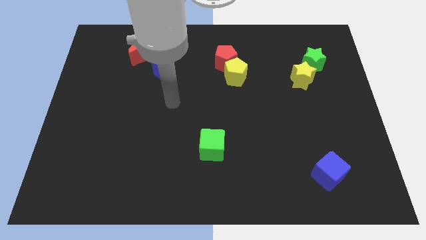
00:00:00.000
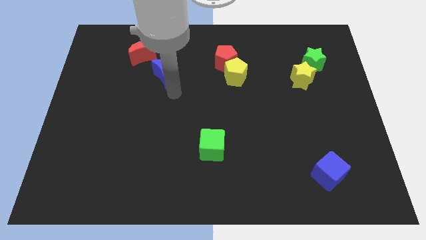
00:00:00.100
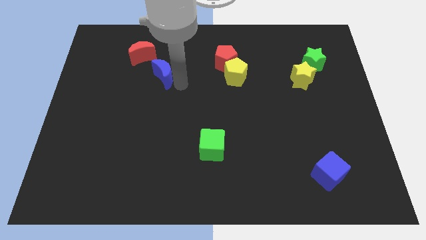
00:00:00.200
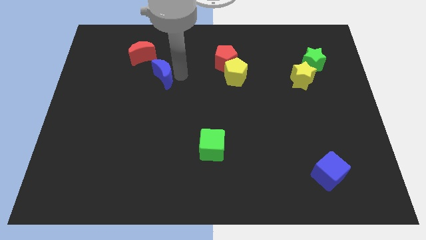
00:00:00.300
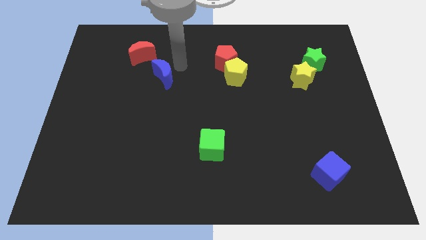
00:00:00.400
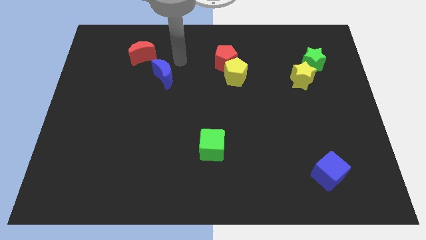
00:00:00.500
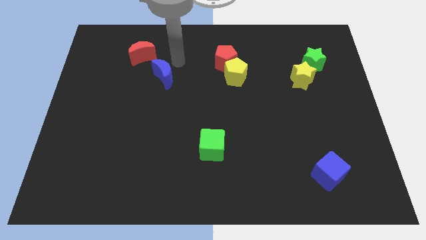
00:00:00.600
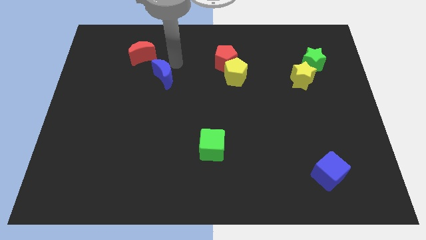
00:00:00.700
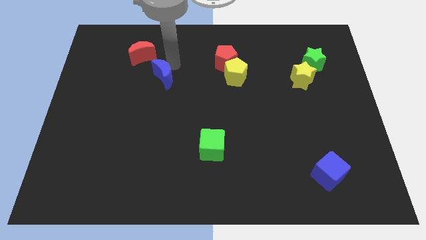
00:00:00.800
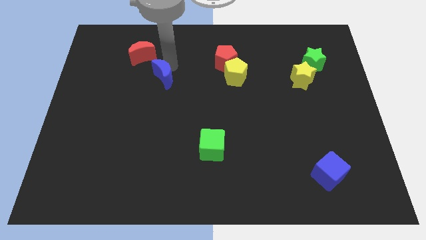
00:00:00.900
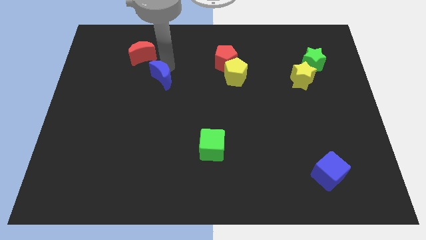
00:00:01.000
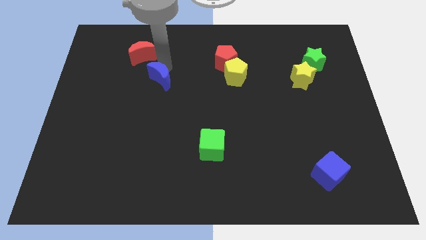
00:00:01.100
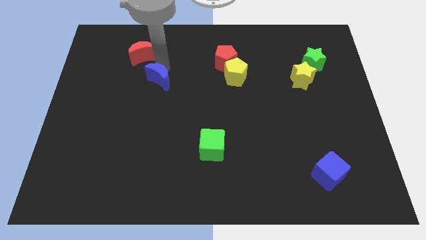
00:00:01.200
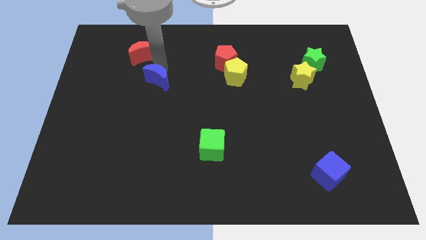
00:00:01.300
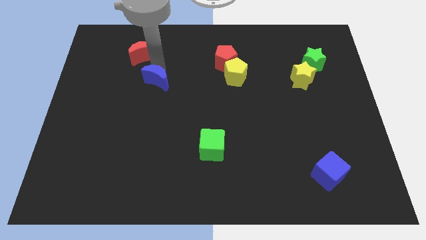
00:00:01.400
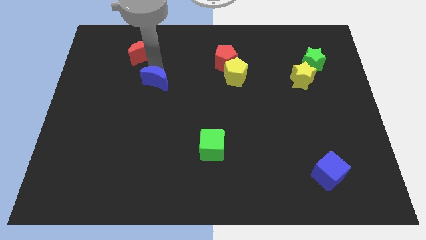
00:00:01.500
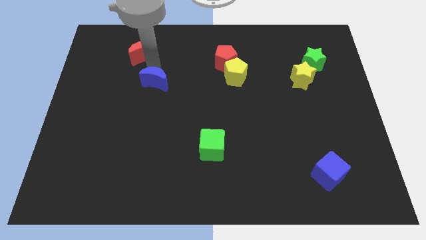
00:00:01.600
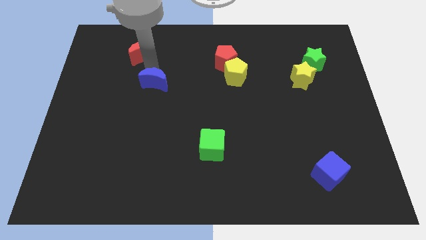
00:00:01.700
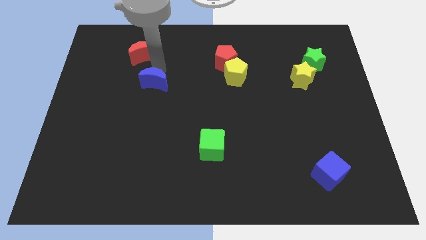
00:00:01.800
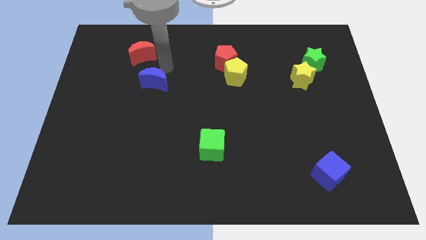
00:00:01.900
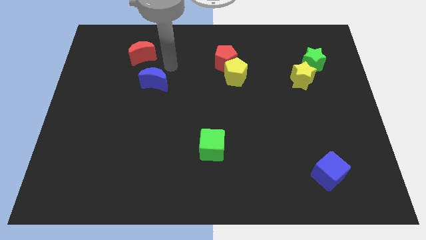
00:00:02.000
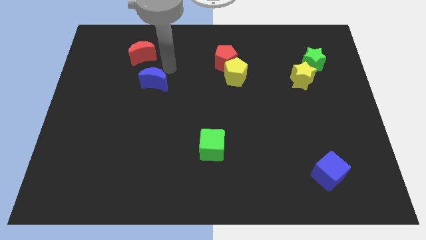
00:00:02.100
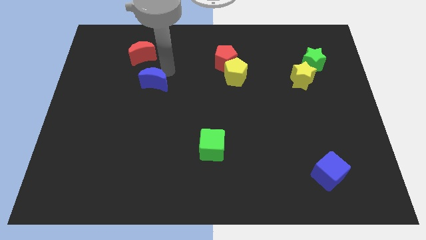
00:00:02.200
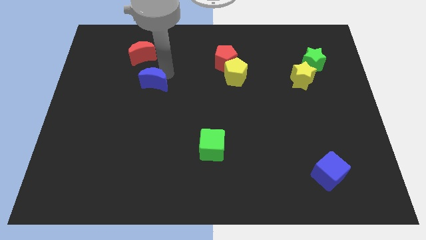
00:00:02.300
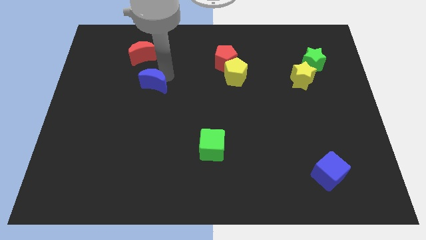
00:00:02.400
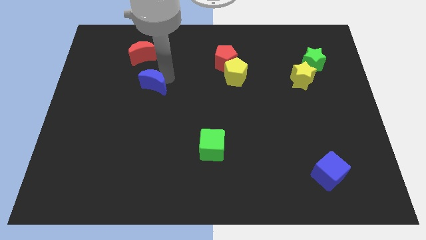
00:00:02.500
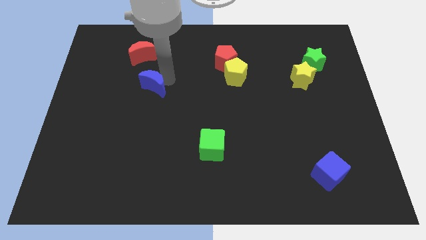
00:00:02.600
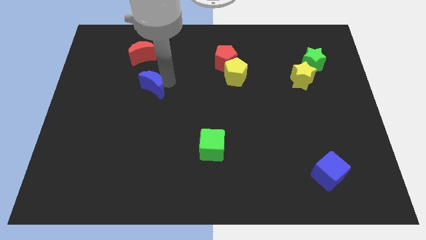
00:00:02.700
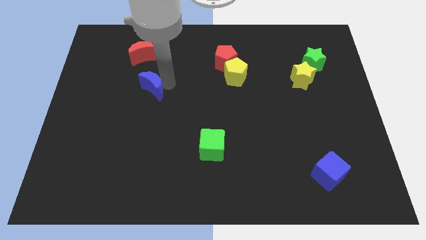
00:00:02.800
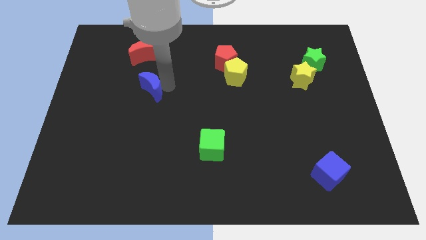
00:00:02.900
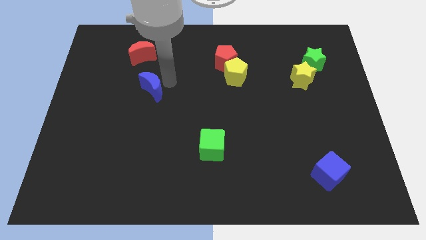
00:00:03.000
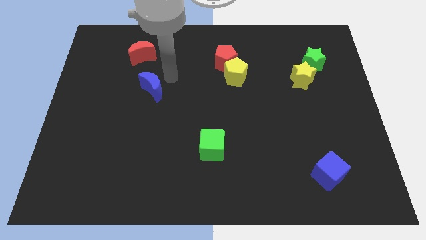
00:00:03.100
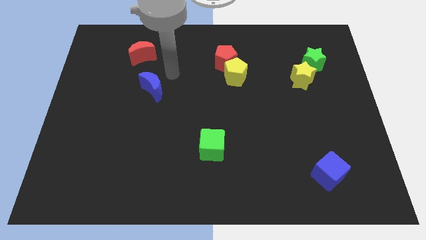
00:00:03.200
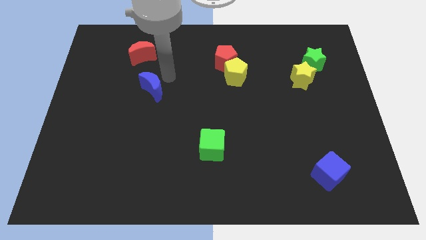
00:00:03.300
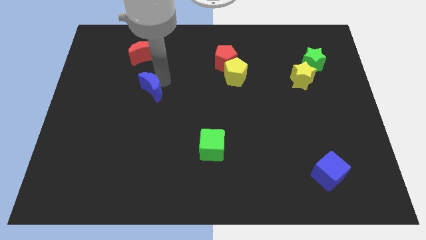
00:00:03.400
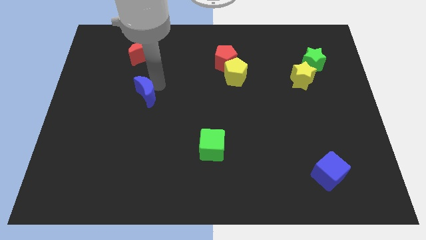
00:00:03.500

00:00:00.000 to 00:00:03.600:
push the blue moon slightly downwards and then left

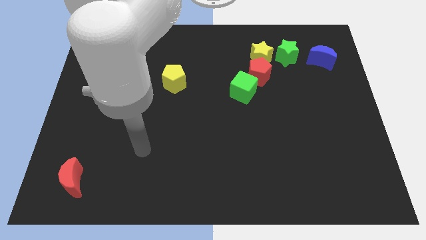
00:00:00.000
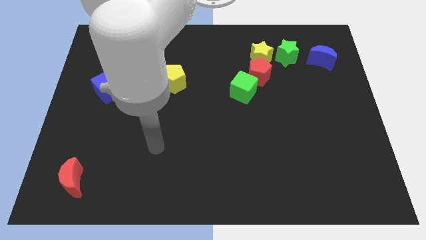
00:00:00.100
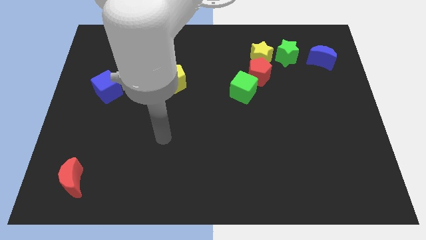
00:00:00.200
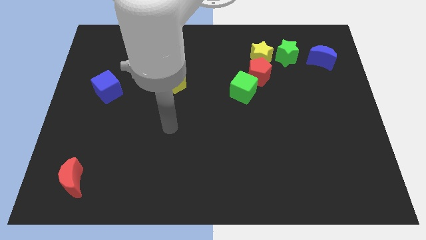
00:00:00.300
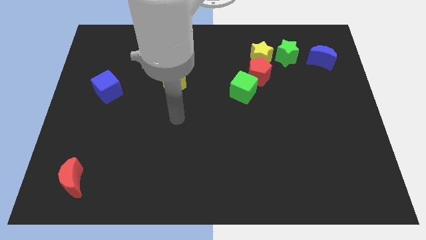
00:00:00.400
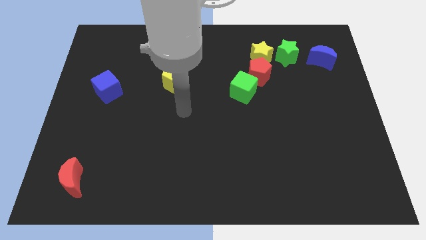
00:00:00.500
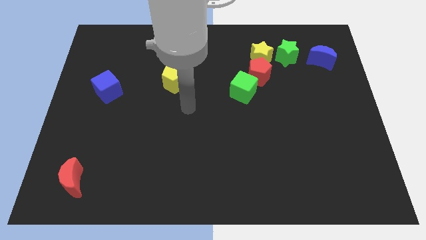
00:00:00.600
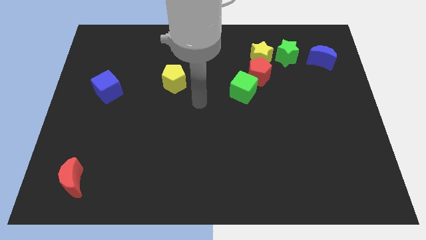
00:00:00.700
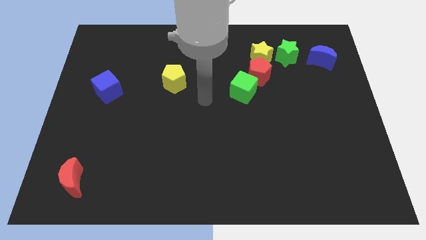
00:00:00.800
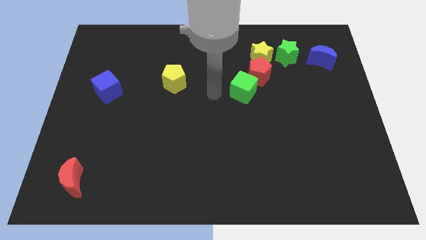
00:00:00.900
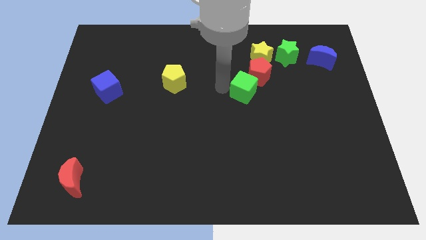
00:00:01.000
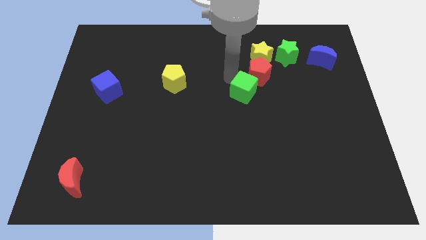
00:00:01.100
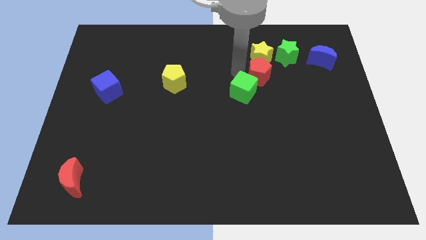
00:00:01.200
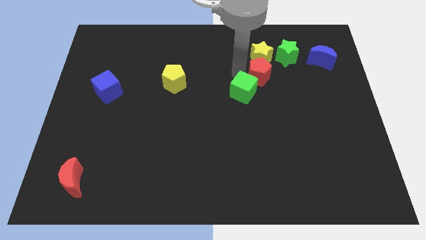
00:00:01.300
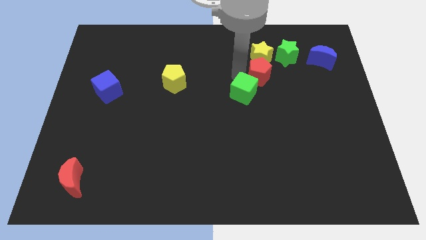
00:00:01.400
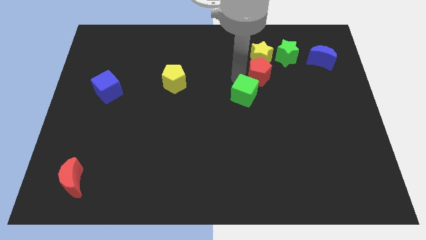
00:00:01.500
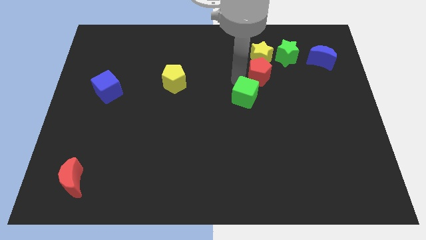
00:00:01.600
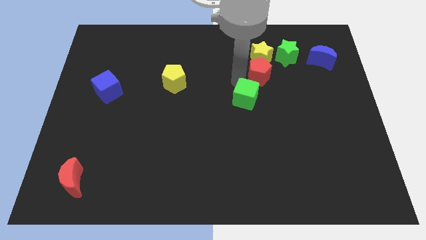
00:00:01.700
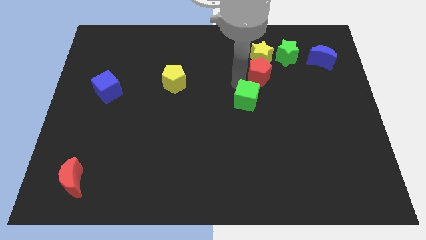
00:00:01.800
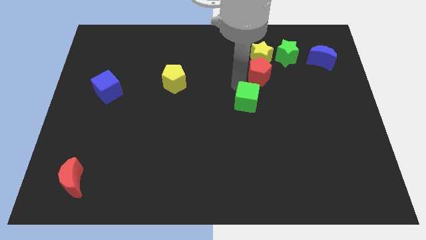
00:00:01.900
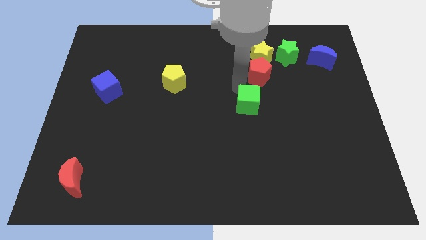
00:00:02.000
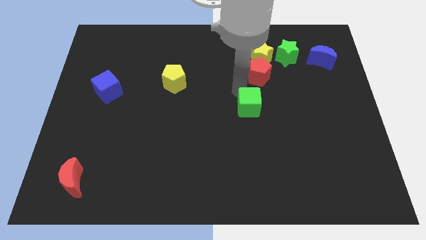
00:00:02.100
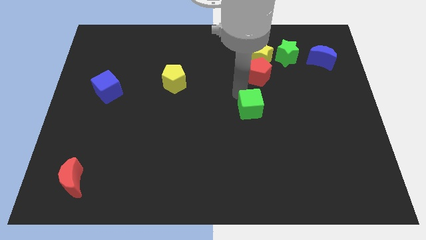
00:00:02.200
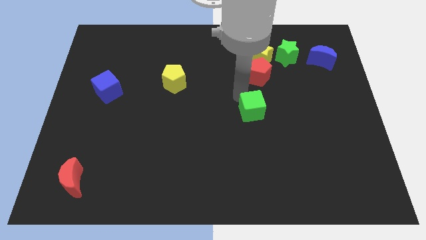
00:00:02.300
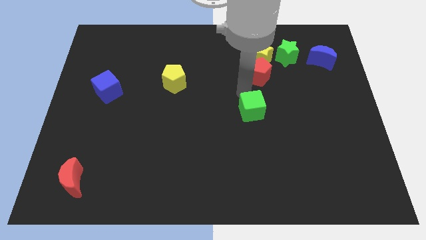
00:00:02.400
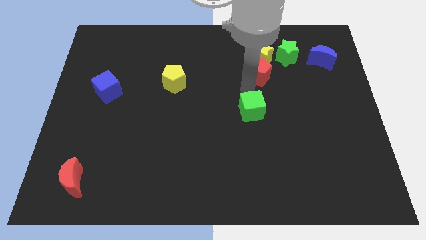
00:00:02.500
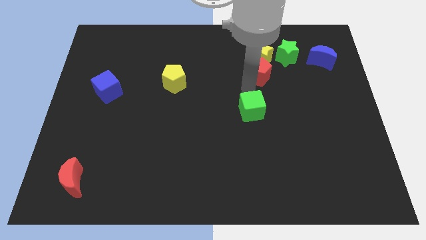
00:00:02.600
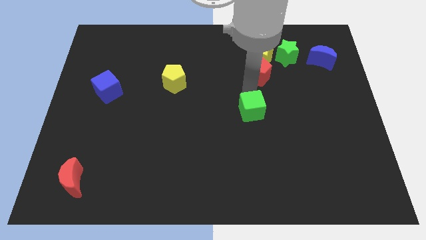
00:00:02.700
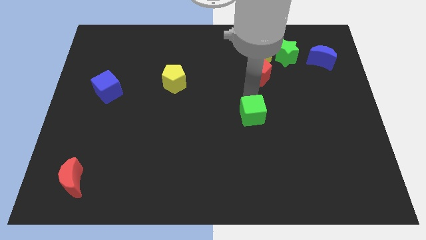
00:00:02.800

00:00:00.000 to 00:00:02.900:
slightly move the green cube down

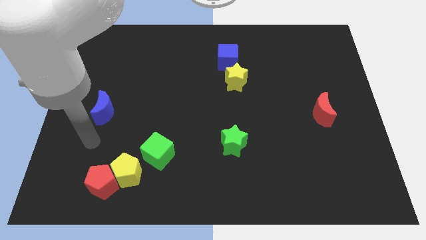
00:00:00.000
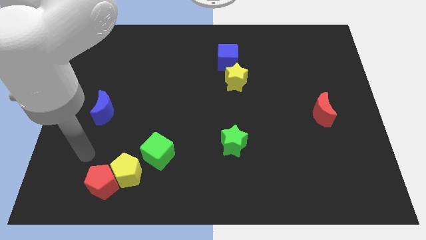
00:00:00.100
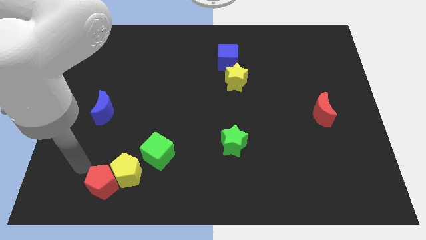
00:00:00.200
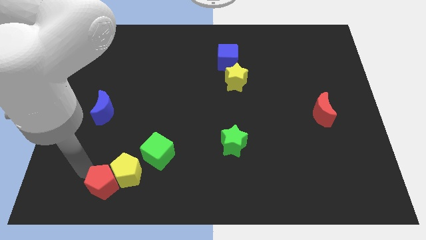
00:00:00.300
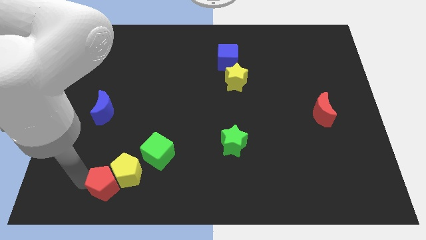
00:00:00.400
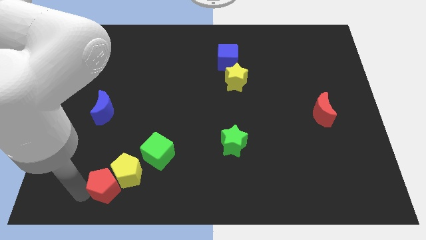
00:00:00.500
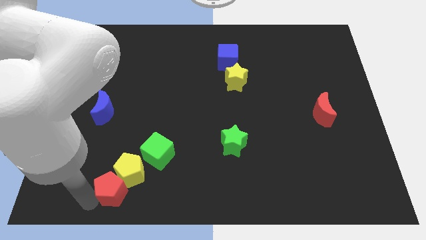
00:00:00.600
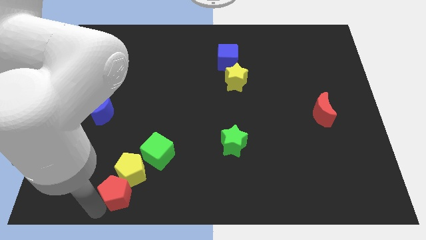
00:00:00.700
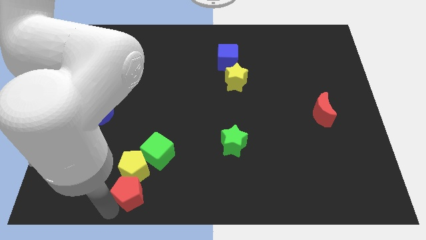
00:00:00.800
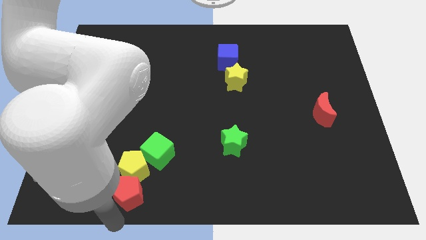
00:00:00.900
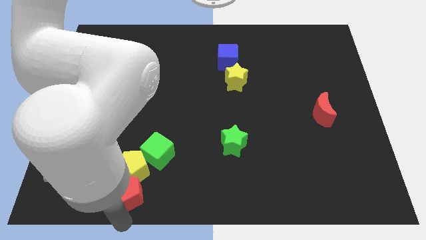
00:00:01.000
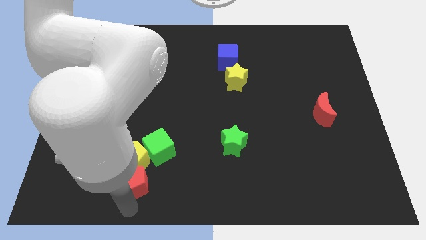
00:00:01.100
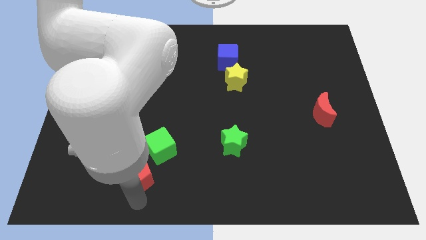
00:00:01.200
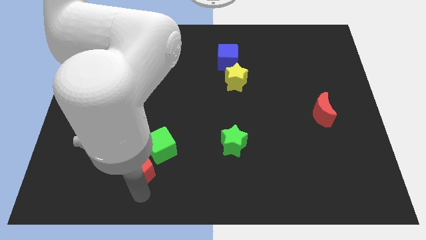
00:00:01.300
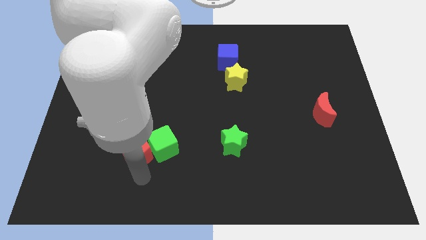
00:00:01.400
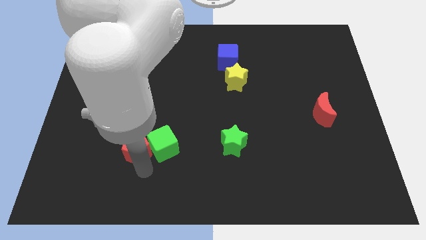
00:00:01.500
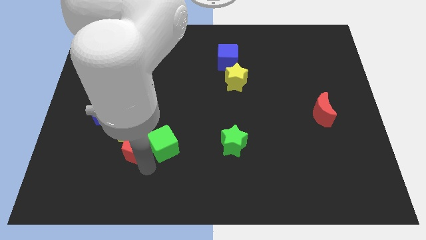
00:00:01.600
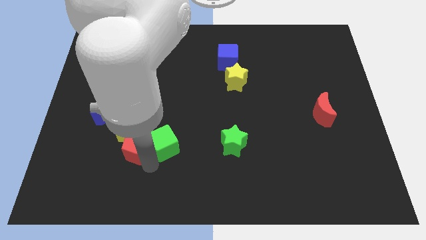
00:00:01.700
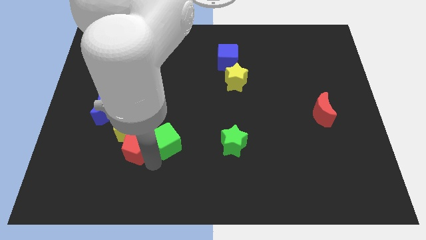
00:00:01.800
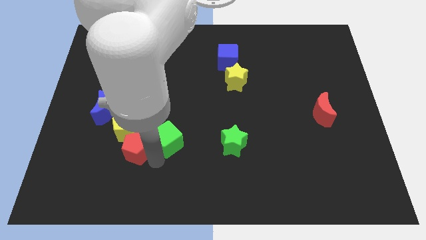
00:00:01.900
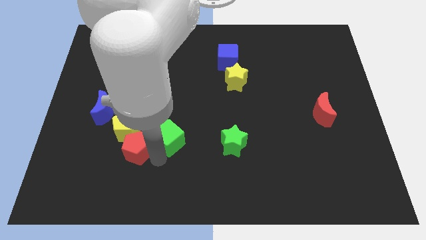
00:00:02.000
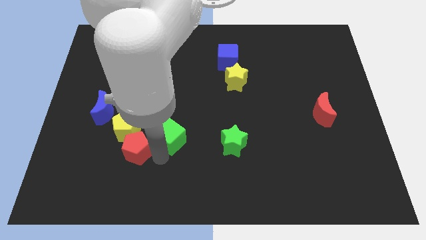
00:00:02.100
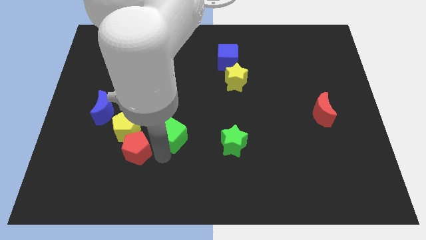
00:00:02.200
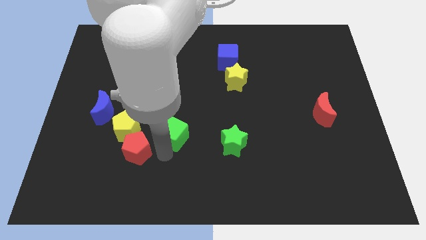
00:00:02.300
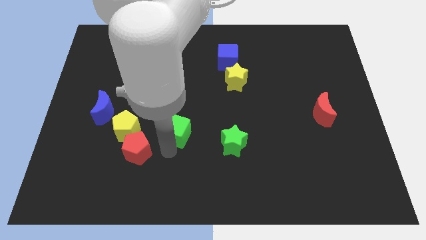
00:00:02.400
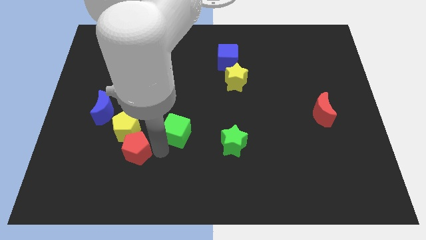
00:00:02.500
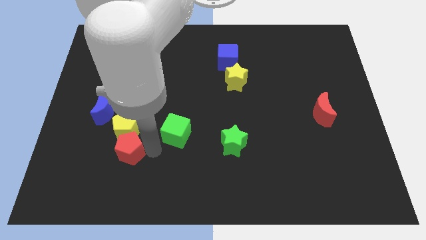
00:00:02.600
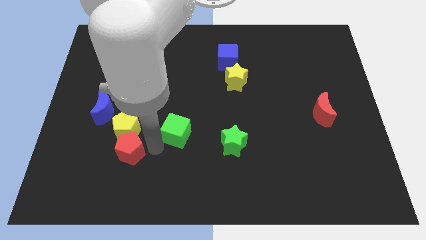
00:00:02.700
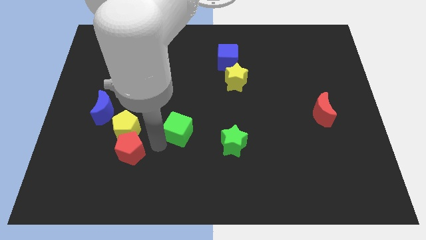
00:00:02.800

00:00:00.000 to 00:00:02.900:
slide the green cube somewhat upwards and then right
